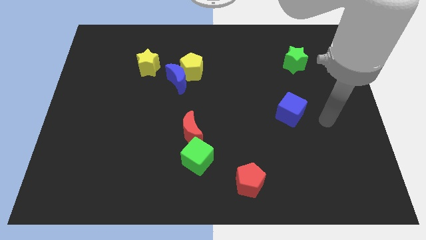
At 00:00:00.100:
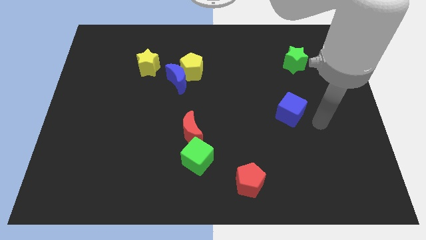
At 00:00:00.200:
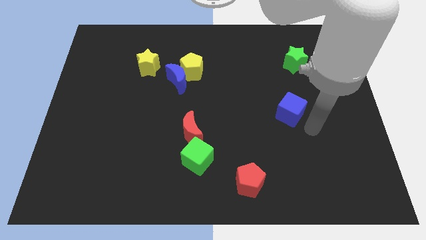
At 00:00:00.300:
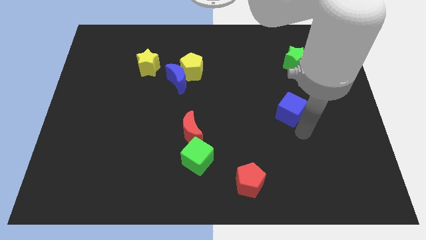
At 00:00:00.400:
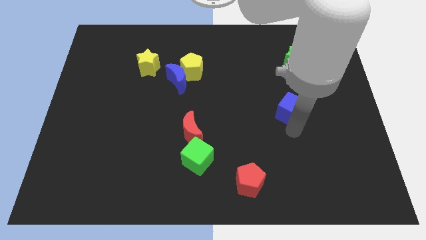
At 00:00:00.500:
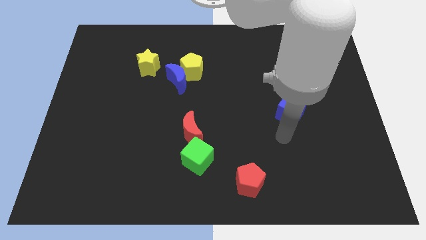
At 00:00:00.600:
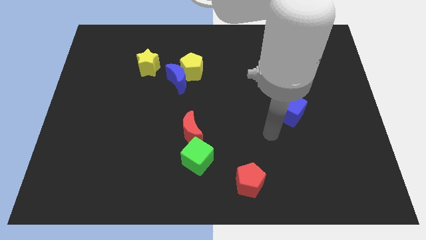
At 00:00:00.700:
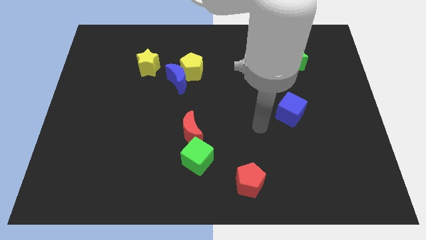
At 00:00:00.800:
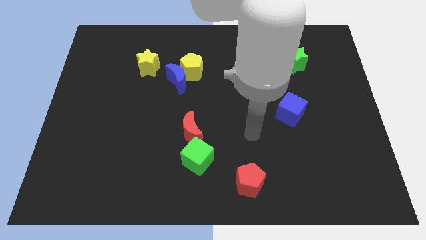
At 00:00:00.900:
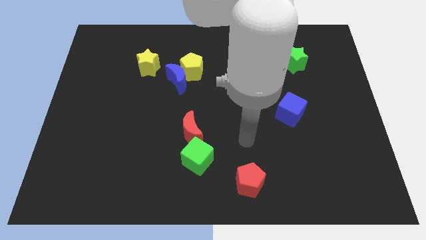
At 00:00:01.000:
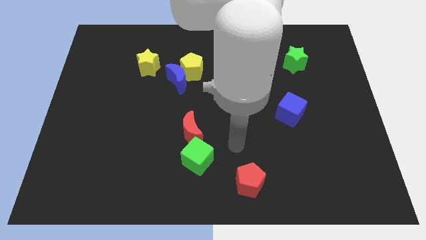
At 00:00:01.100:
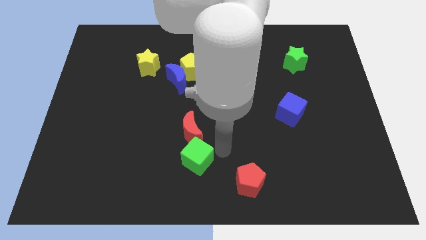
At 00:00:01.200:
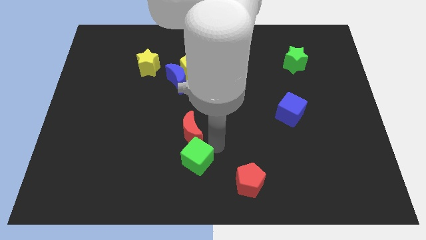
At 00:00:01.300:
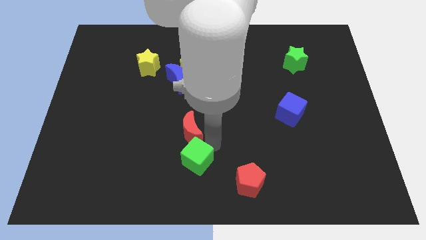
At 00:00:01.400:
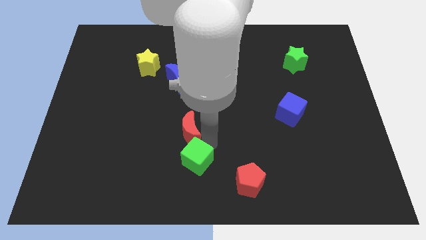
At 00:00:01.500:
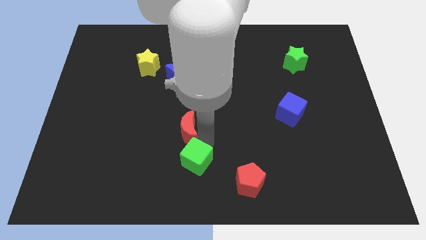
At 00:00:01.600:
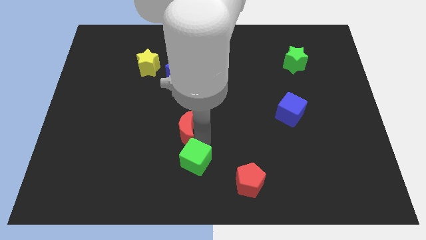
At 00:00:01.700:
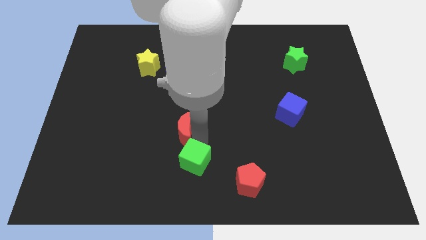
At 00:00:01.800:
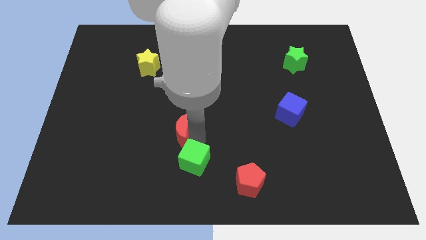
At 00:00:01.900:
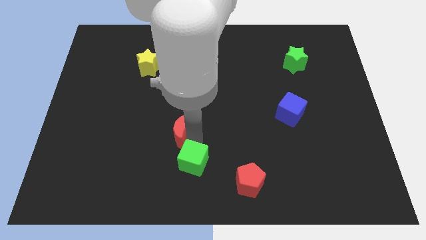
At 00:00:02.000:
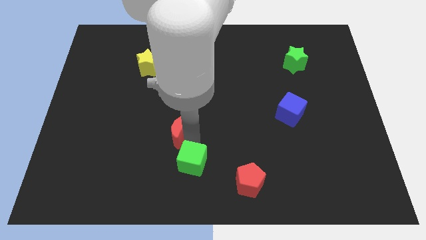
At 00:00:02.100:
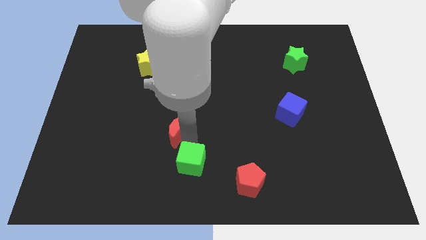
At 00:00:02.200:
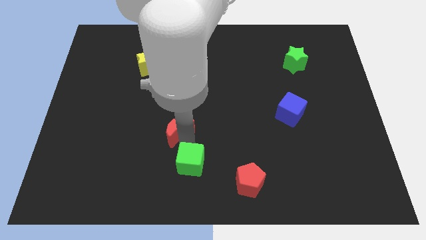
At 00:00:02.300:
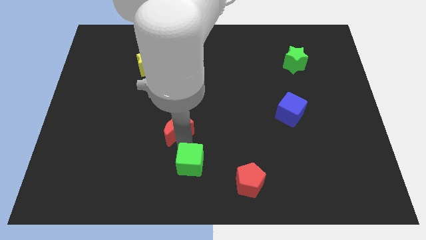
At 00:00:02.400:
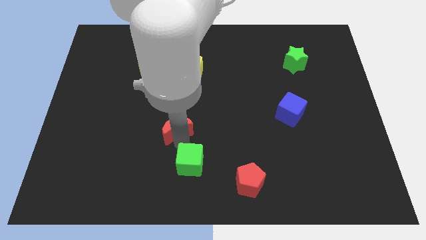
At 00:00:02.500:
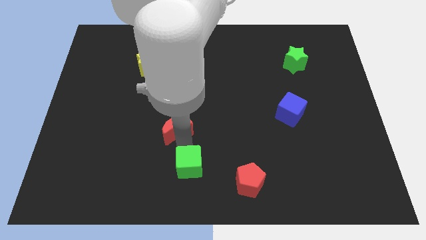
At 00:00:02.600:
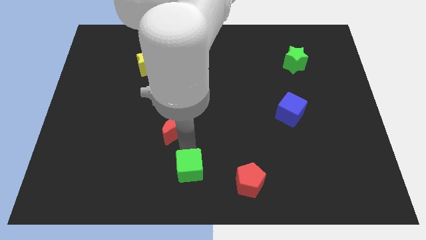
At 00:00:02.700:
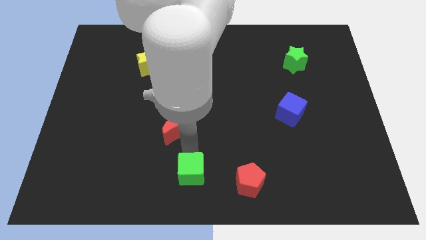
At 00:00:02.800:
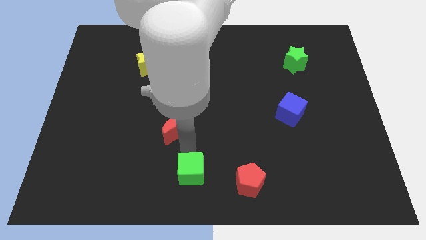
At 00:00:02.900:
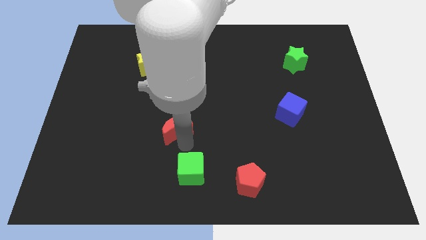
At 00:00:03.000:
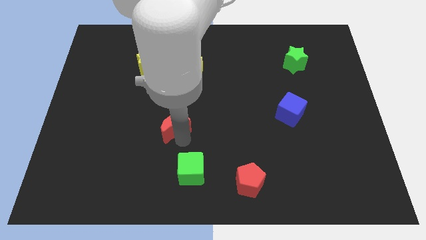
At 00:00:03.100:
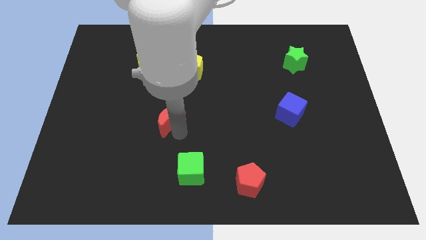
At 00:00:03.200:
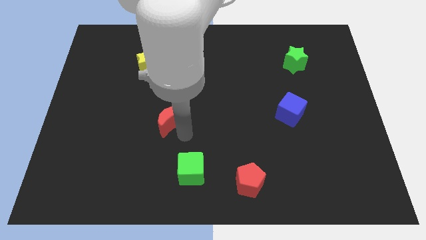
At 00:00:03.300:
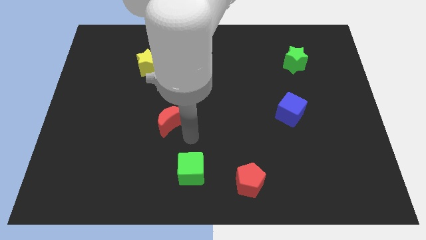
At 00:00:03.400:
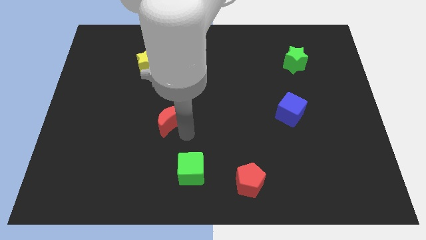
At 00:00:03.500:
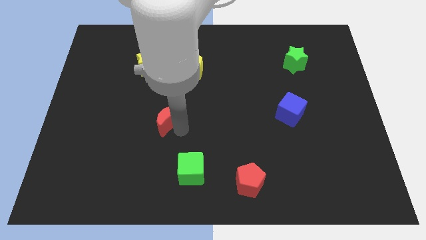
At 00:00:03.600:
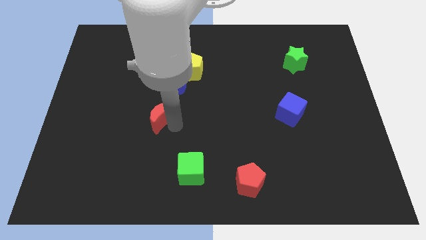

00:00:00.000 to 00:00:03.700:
slide the red moon slightly diagonally up and to the left

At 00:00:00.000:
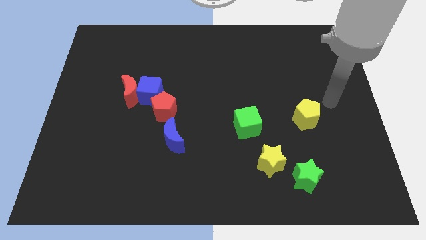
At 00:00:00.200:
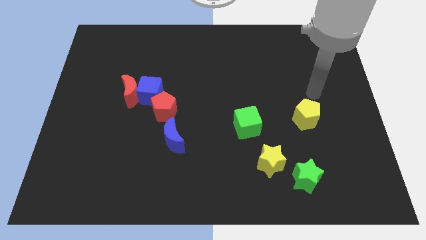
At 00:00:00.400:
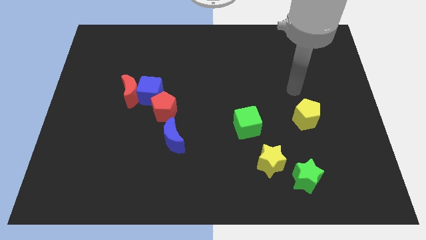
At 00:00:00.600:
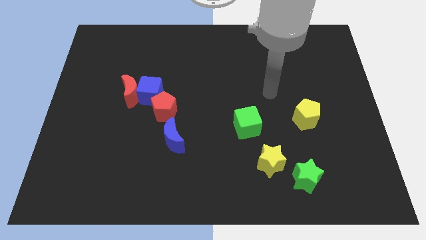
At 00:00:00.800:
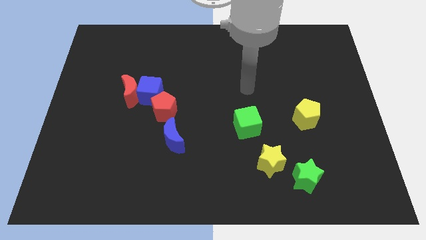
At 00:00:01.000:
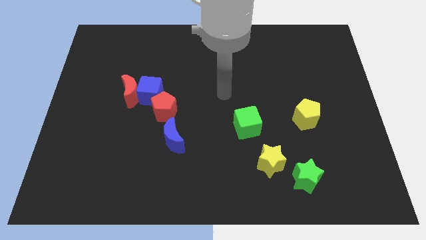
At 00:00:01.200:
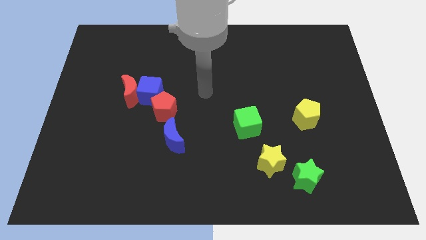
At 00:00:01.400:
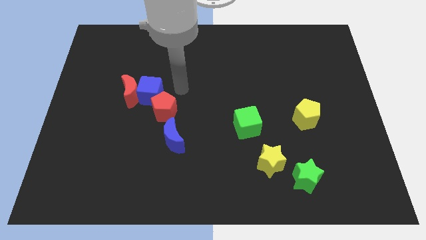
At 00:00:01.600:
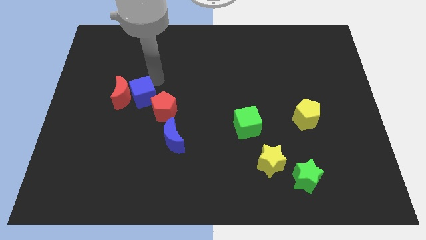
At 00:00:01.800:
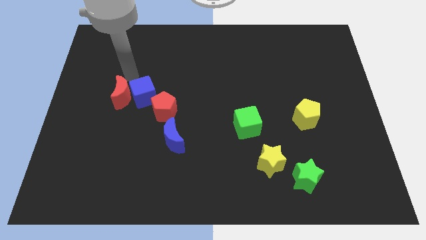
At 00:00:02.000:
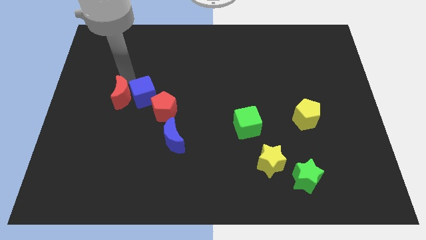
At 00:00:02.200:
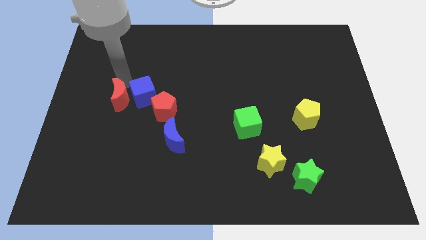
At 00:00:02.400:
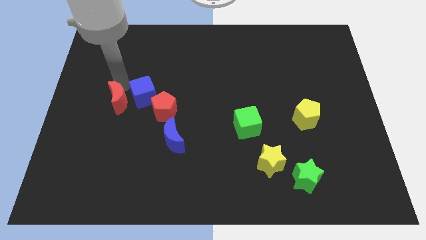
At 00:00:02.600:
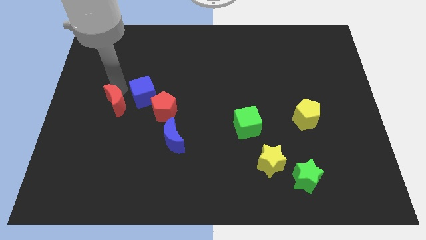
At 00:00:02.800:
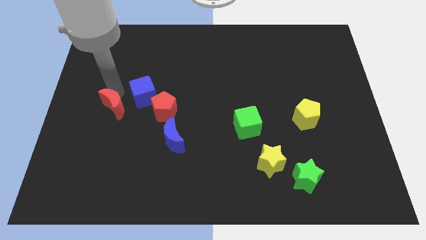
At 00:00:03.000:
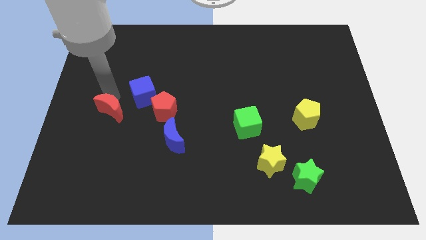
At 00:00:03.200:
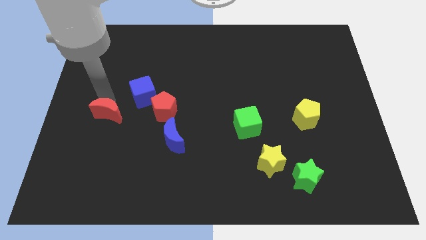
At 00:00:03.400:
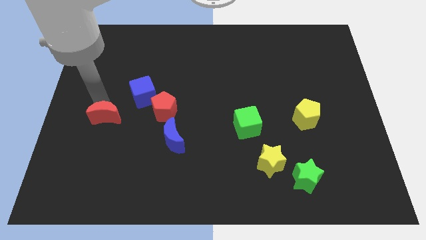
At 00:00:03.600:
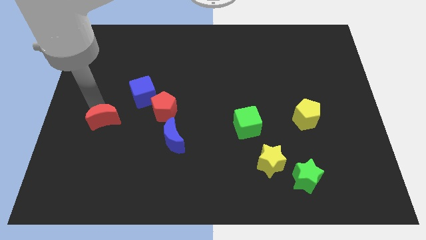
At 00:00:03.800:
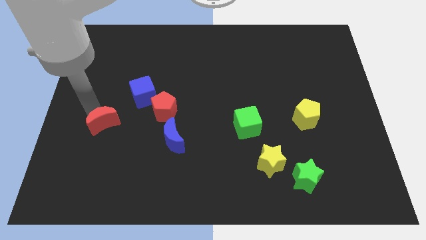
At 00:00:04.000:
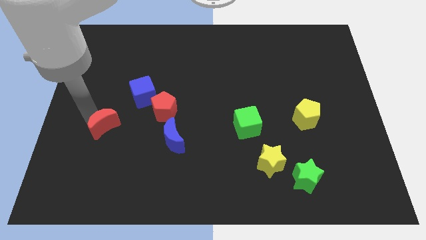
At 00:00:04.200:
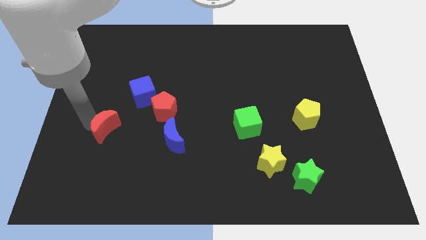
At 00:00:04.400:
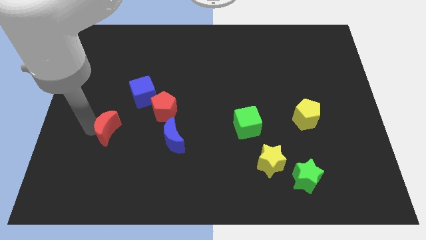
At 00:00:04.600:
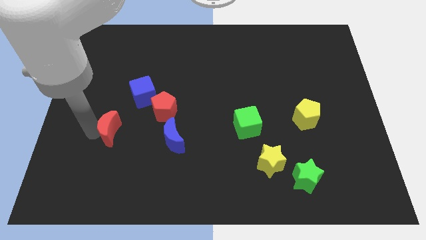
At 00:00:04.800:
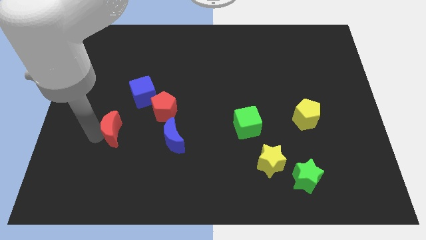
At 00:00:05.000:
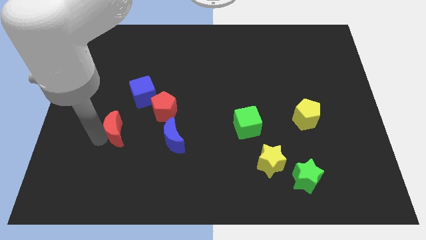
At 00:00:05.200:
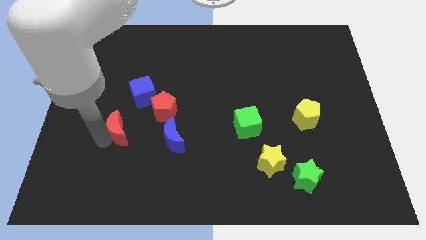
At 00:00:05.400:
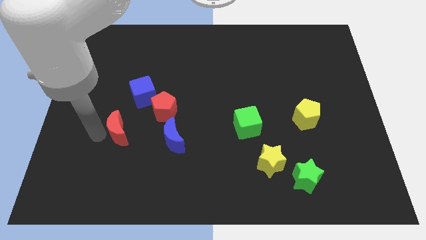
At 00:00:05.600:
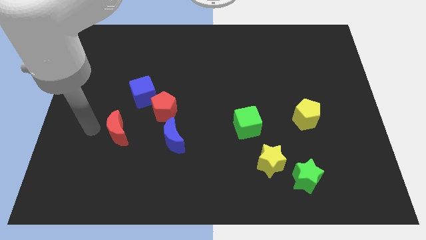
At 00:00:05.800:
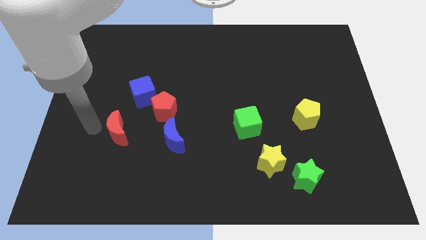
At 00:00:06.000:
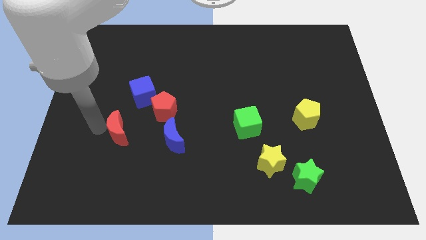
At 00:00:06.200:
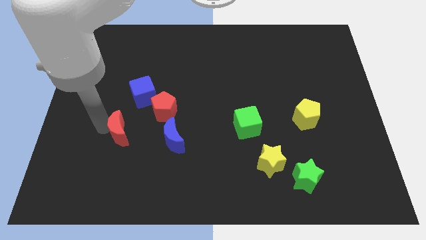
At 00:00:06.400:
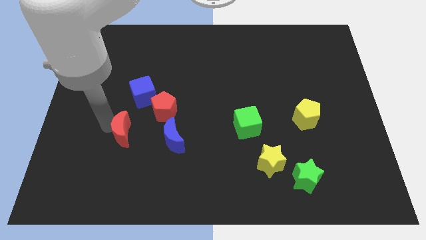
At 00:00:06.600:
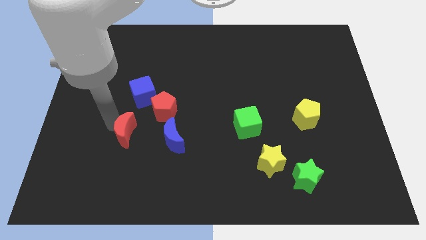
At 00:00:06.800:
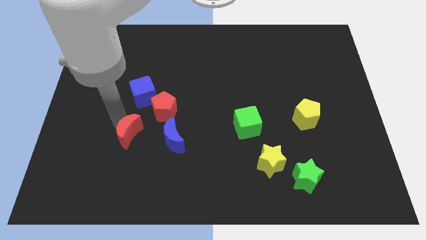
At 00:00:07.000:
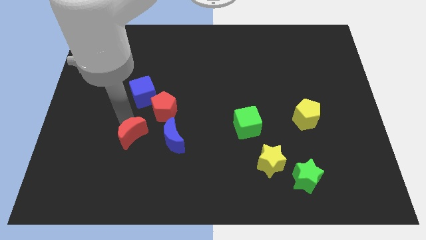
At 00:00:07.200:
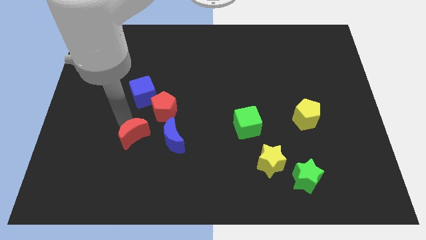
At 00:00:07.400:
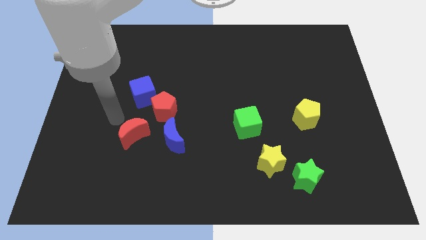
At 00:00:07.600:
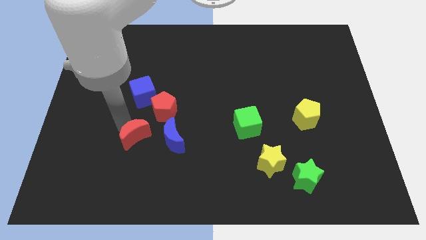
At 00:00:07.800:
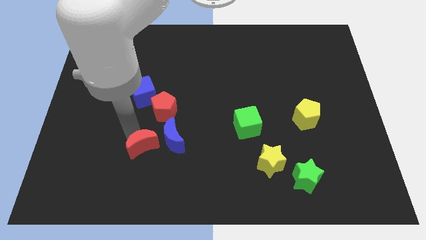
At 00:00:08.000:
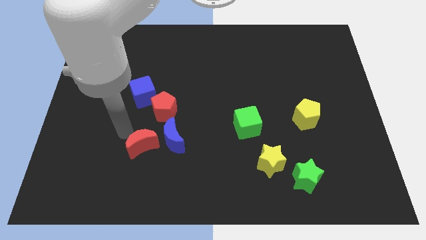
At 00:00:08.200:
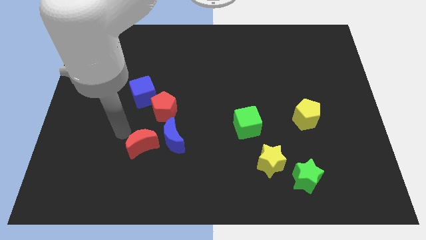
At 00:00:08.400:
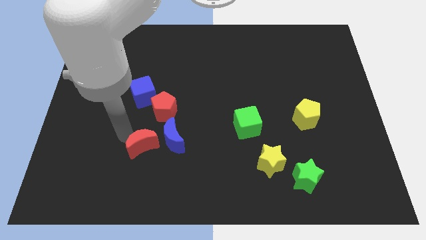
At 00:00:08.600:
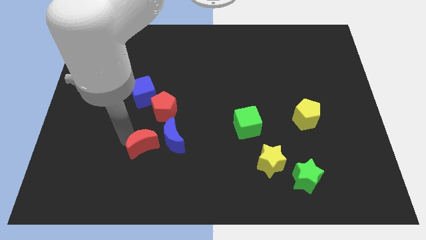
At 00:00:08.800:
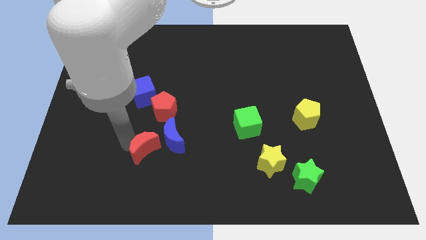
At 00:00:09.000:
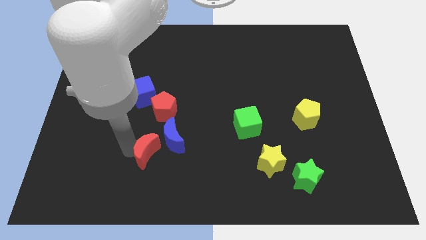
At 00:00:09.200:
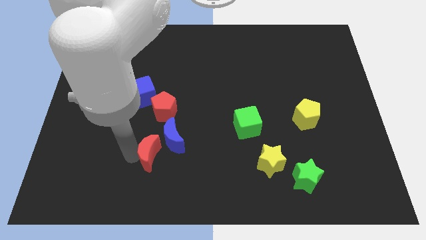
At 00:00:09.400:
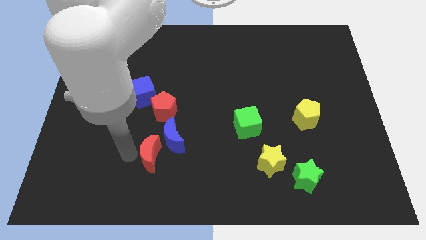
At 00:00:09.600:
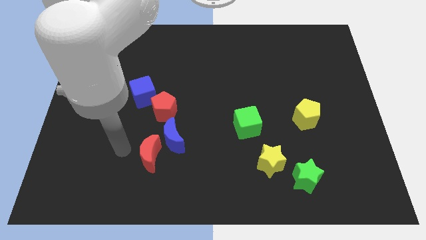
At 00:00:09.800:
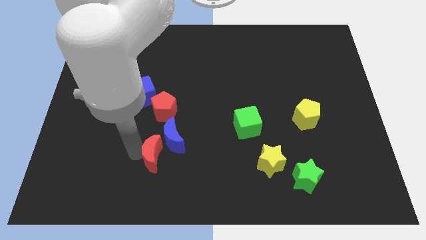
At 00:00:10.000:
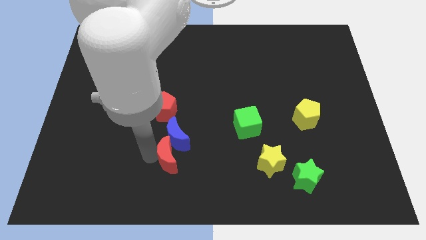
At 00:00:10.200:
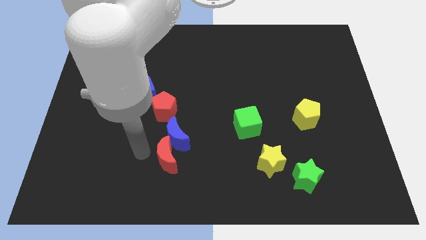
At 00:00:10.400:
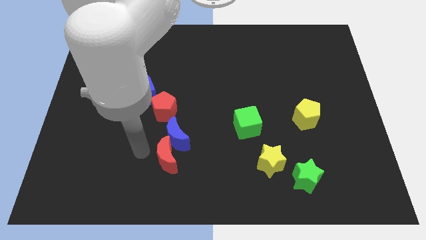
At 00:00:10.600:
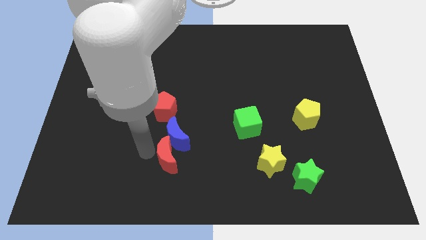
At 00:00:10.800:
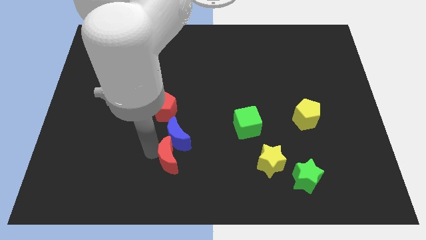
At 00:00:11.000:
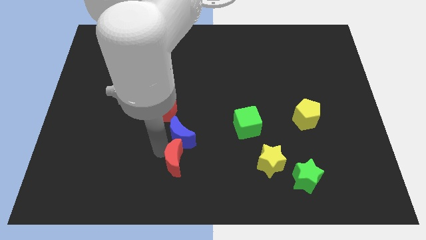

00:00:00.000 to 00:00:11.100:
move the red moon diagonally down and to the right
